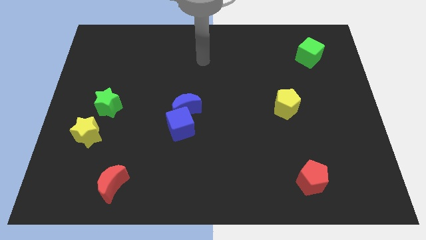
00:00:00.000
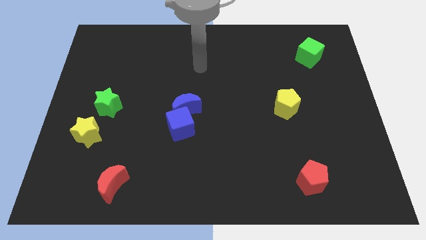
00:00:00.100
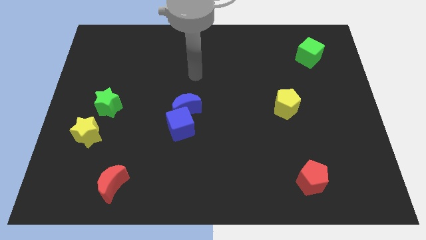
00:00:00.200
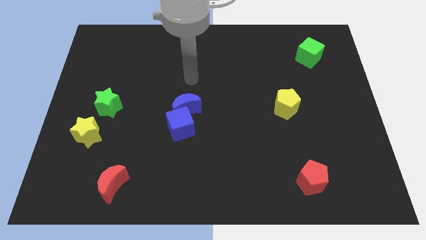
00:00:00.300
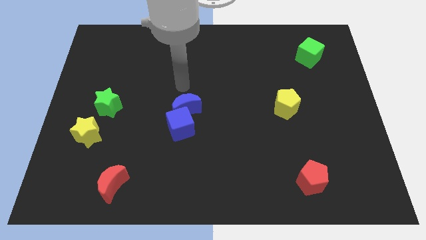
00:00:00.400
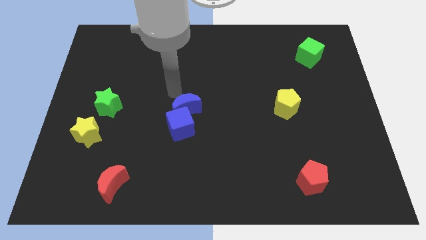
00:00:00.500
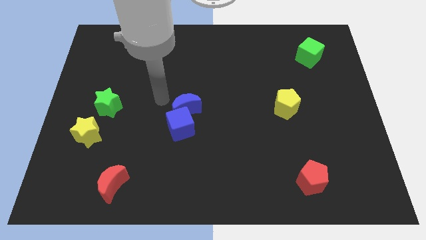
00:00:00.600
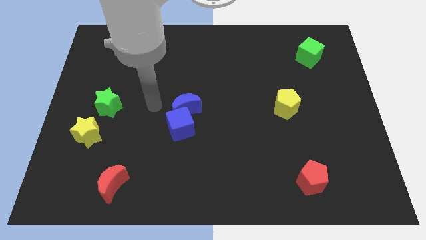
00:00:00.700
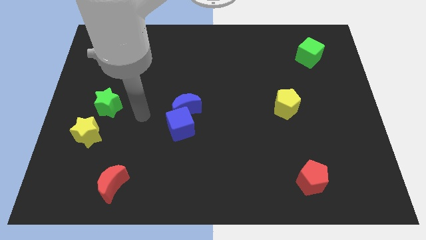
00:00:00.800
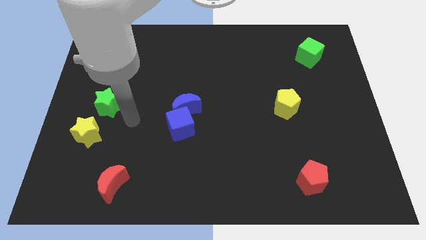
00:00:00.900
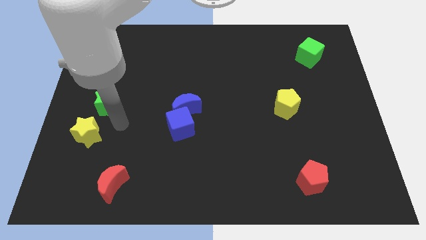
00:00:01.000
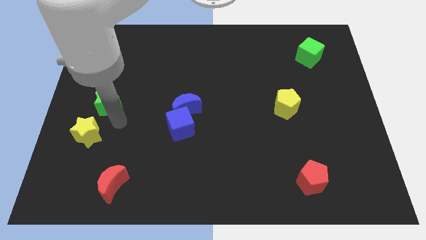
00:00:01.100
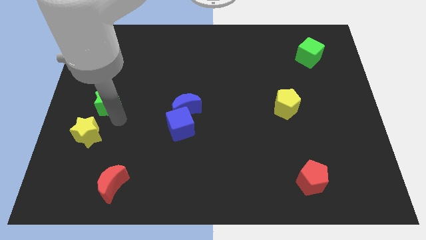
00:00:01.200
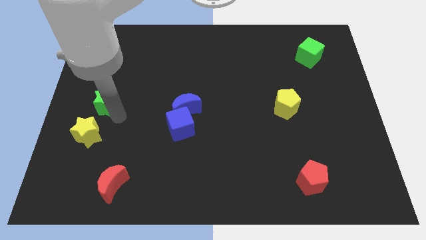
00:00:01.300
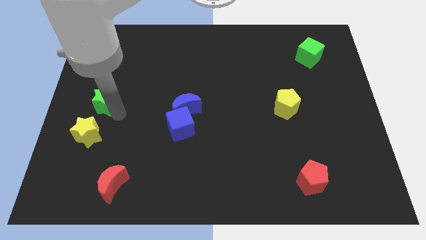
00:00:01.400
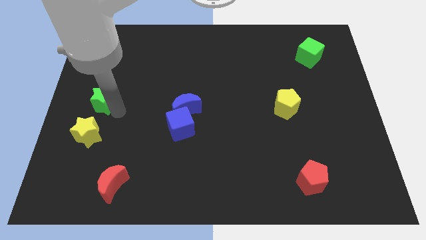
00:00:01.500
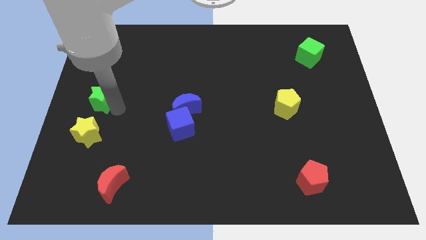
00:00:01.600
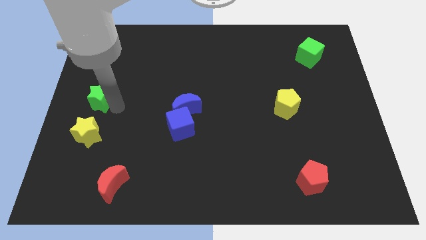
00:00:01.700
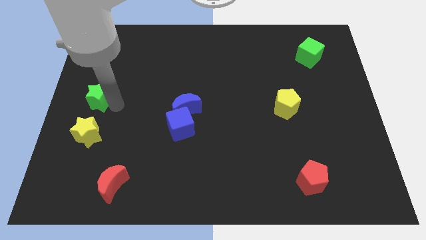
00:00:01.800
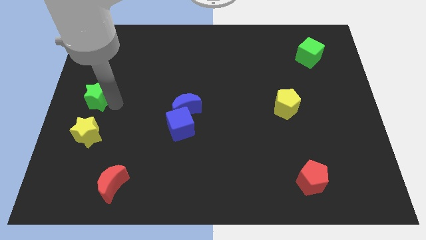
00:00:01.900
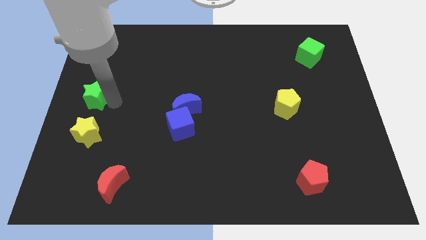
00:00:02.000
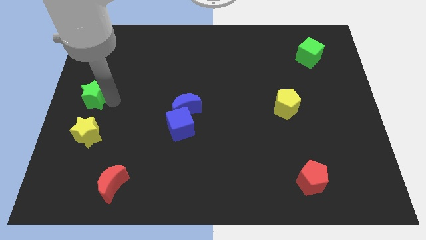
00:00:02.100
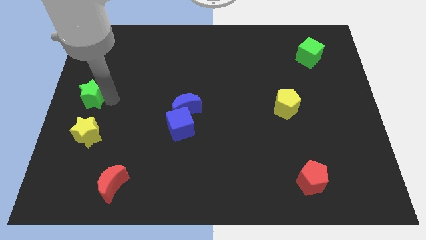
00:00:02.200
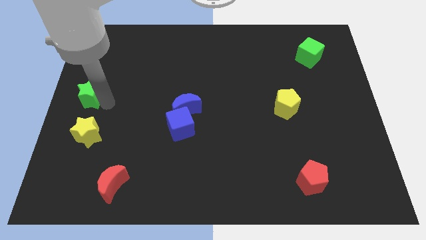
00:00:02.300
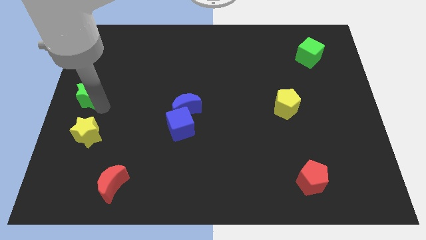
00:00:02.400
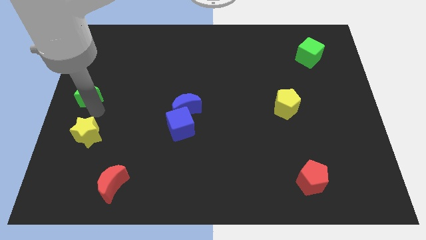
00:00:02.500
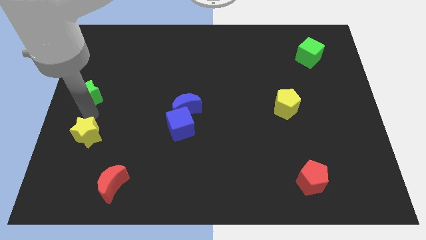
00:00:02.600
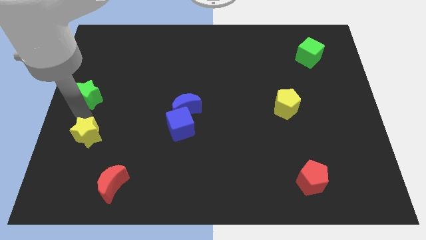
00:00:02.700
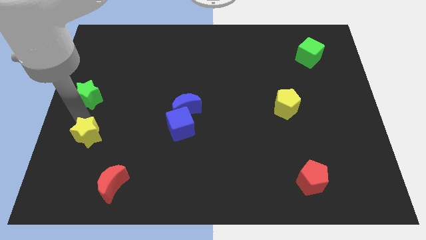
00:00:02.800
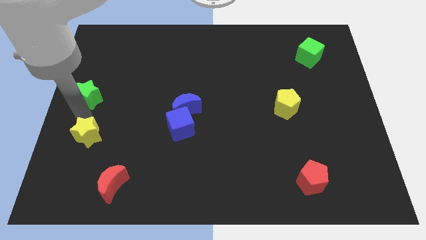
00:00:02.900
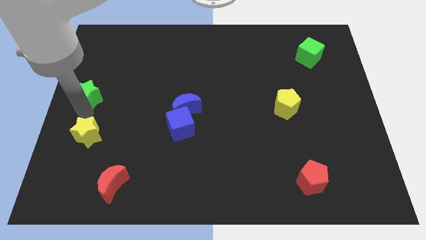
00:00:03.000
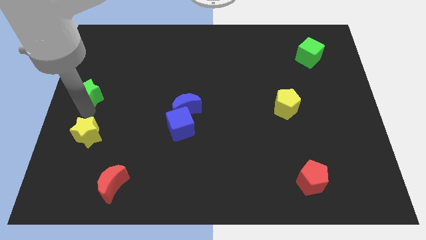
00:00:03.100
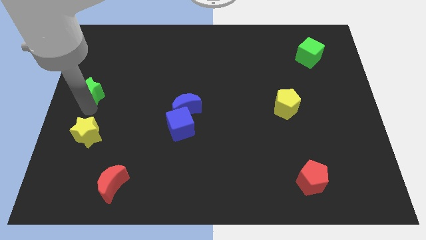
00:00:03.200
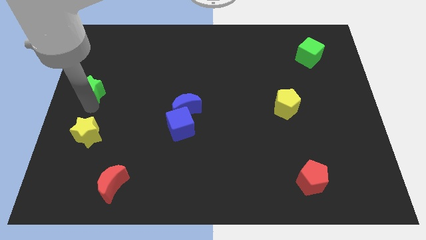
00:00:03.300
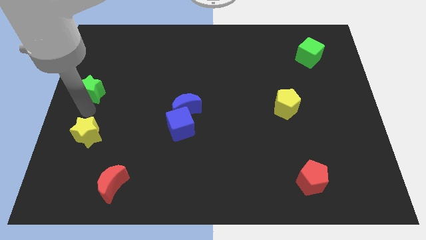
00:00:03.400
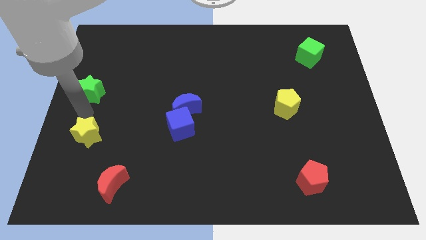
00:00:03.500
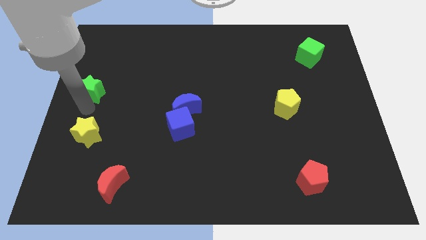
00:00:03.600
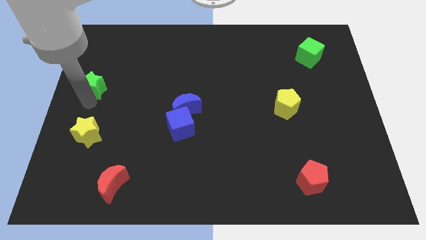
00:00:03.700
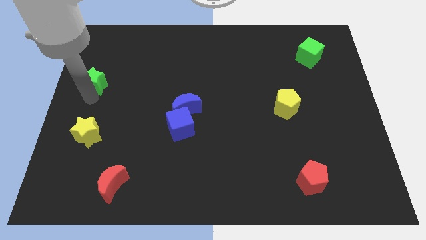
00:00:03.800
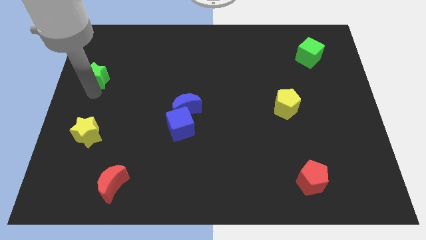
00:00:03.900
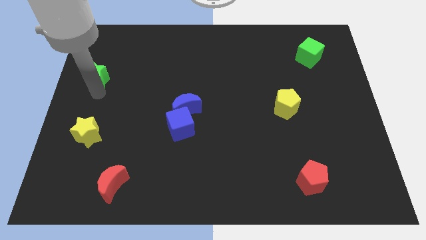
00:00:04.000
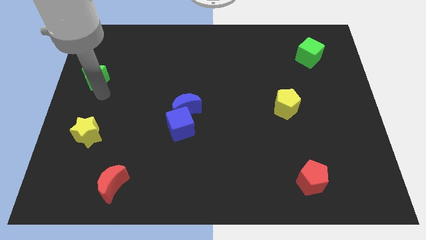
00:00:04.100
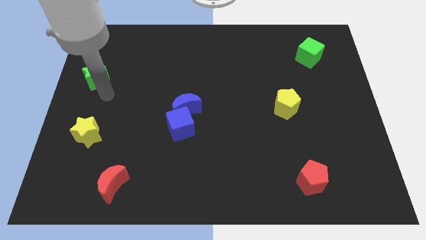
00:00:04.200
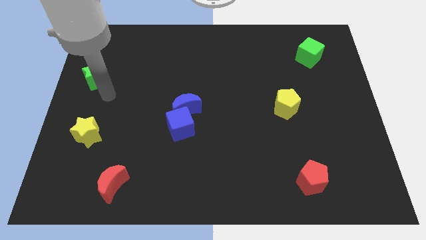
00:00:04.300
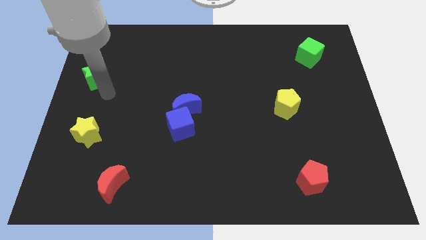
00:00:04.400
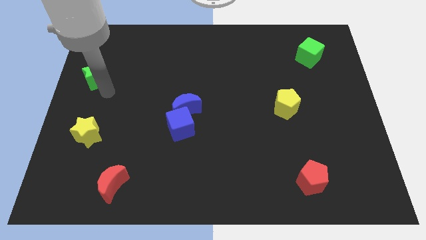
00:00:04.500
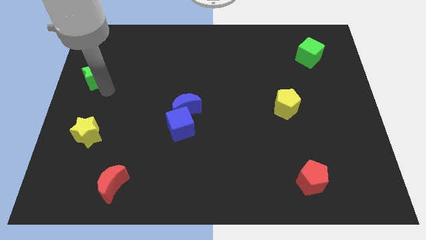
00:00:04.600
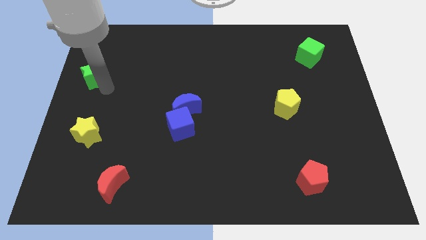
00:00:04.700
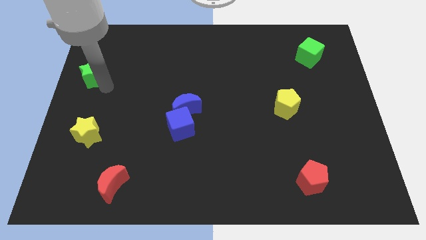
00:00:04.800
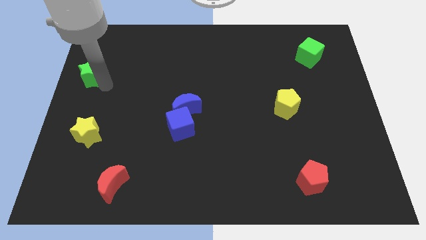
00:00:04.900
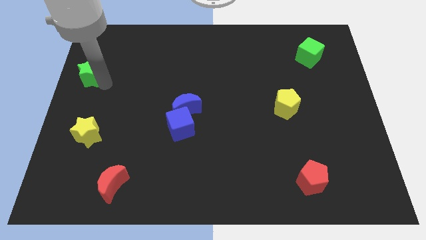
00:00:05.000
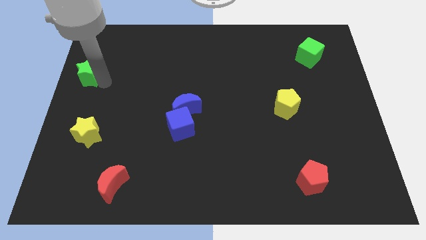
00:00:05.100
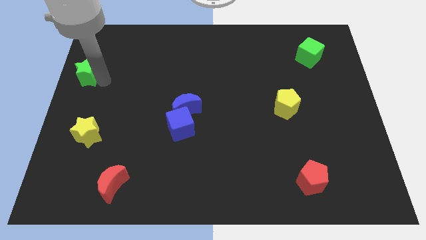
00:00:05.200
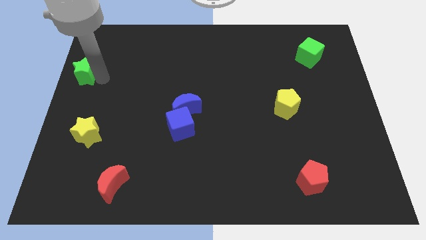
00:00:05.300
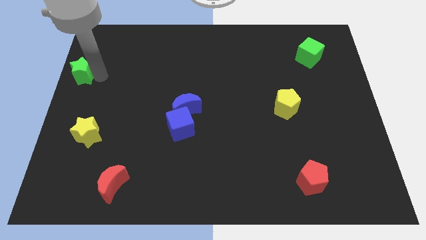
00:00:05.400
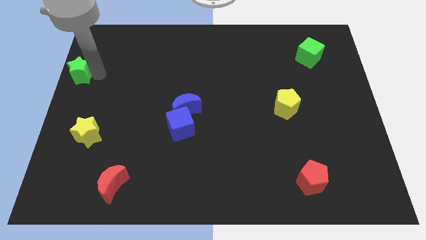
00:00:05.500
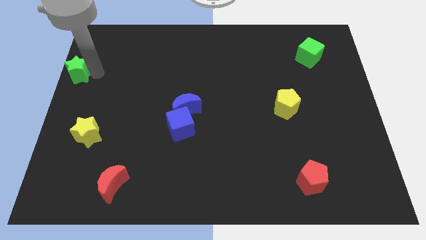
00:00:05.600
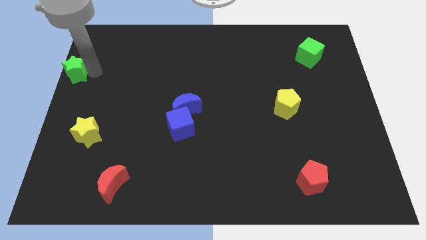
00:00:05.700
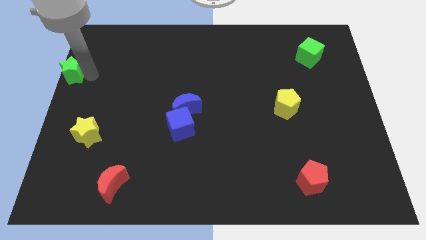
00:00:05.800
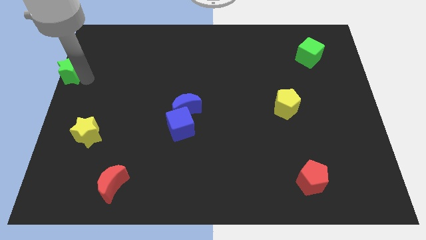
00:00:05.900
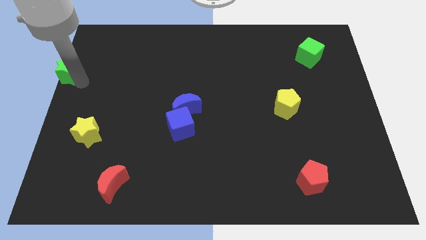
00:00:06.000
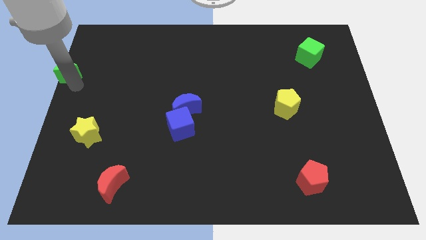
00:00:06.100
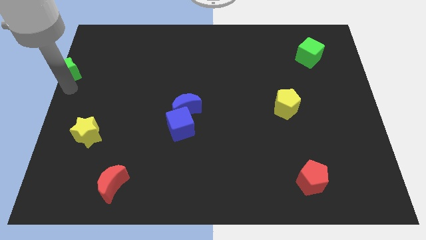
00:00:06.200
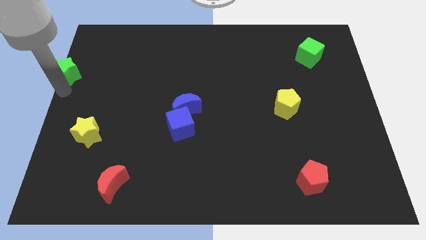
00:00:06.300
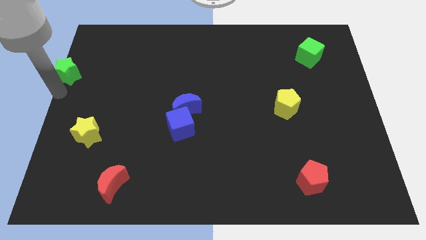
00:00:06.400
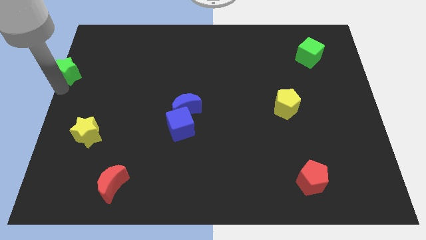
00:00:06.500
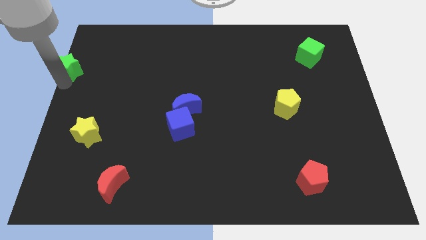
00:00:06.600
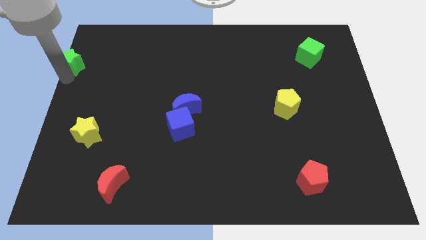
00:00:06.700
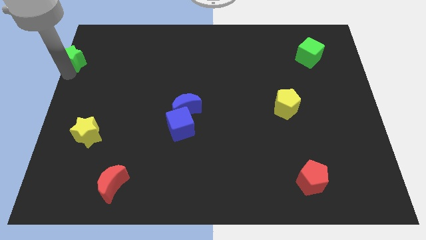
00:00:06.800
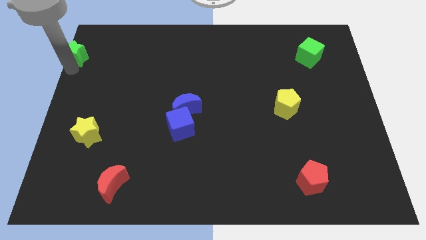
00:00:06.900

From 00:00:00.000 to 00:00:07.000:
move the green star to the top left of the board
